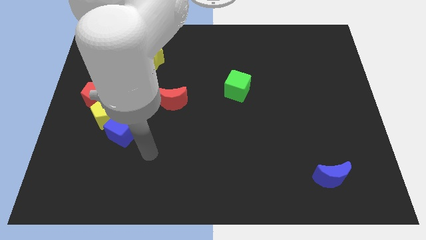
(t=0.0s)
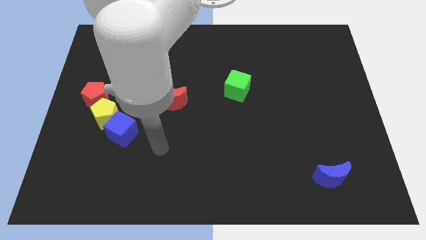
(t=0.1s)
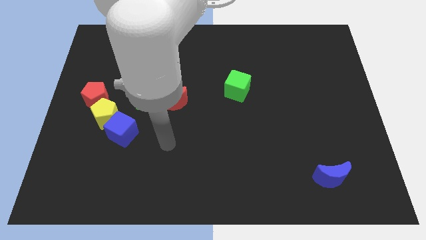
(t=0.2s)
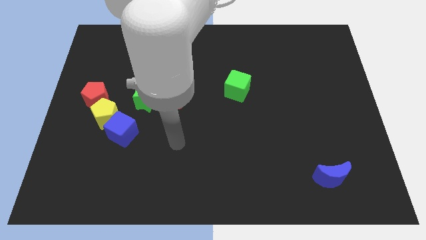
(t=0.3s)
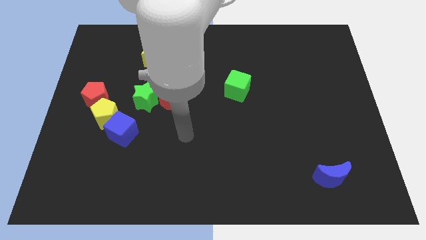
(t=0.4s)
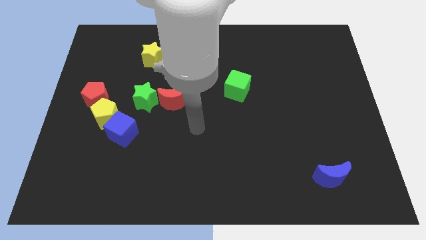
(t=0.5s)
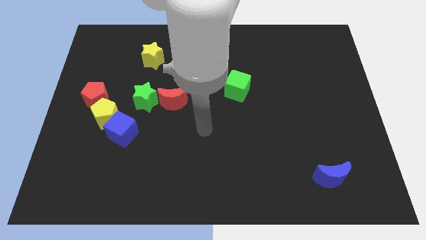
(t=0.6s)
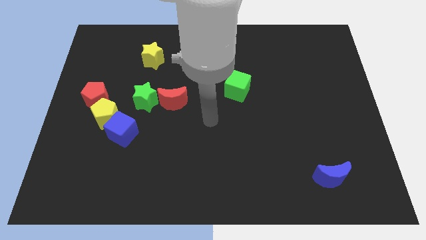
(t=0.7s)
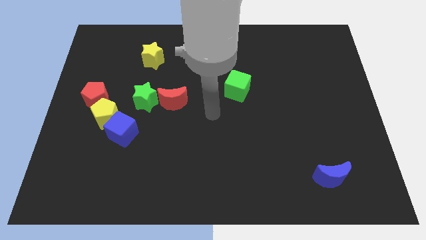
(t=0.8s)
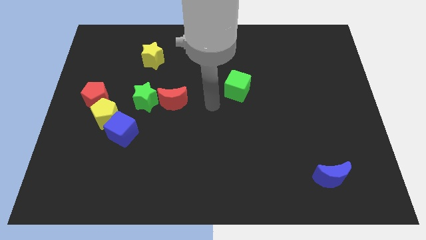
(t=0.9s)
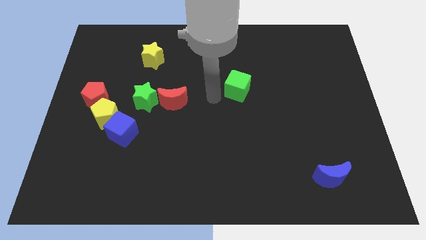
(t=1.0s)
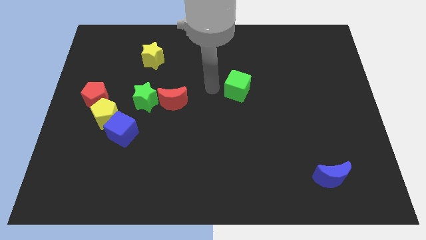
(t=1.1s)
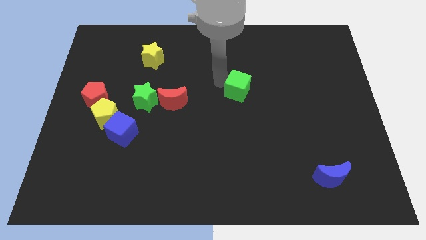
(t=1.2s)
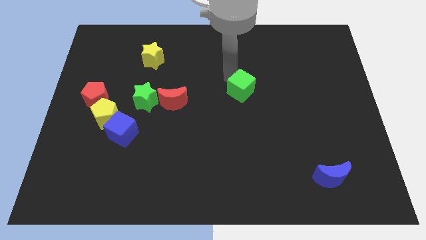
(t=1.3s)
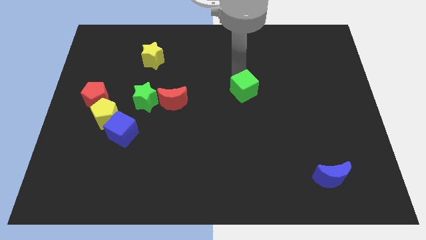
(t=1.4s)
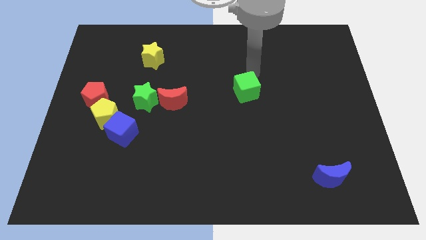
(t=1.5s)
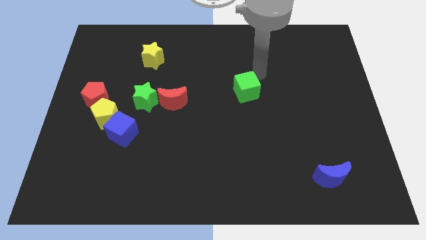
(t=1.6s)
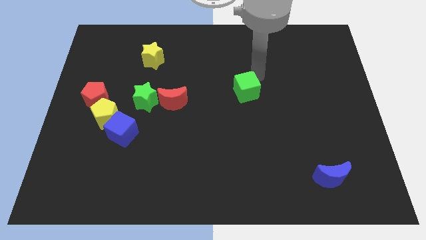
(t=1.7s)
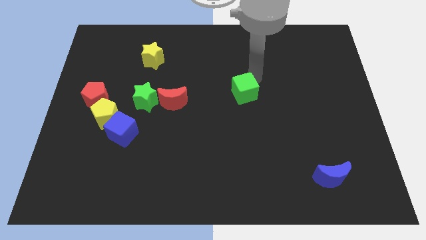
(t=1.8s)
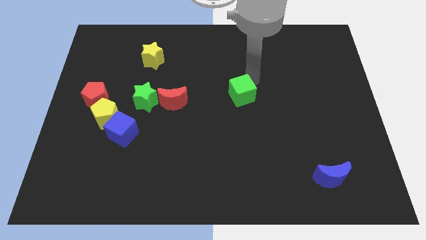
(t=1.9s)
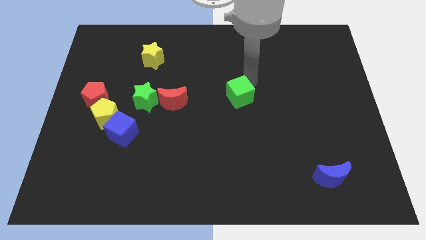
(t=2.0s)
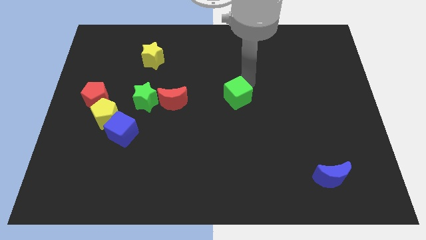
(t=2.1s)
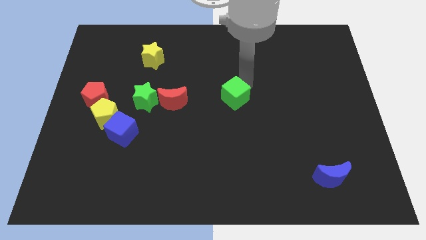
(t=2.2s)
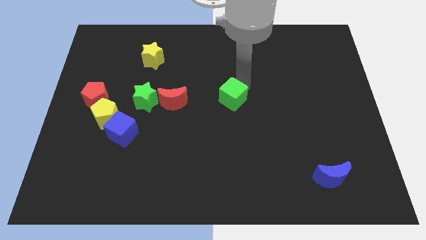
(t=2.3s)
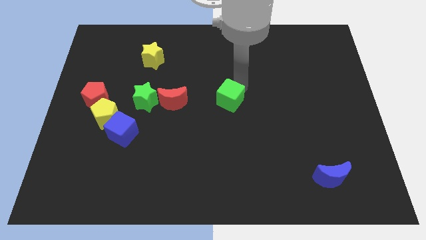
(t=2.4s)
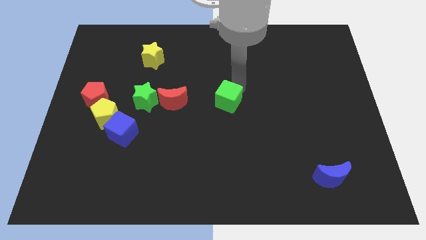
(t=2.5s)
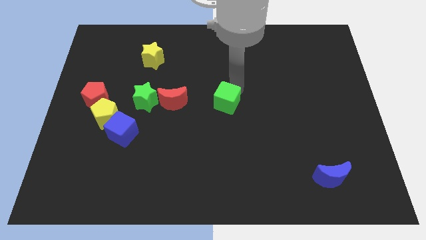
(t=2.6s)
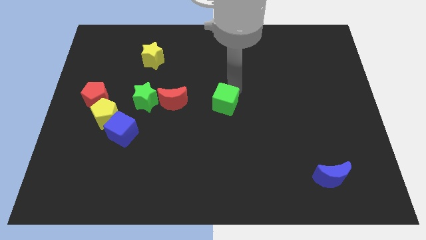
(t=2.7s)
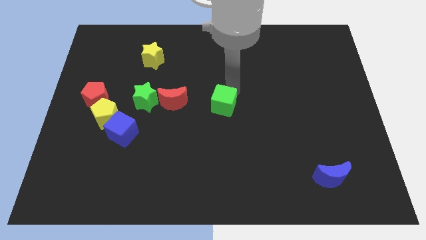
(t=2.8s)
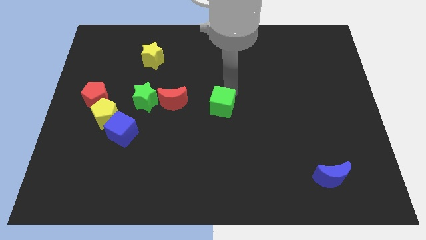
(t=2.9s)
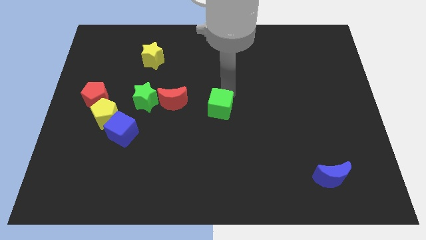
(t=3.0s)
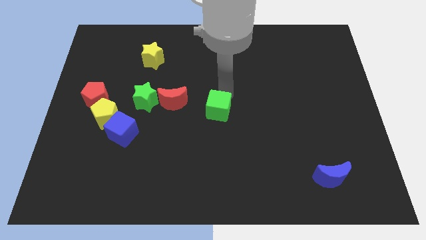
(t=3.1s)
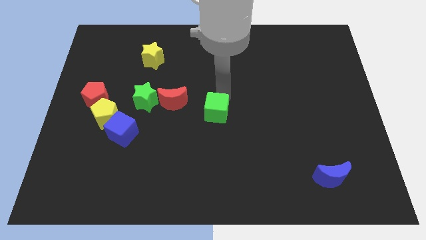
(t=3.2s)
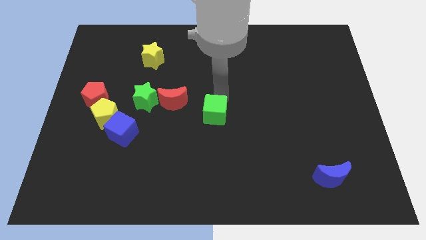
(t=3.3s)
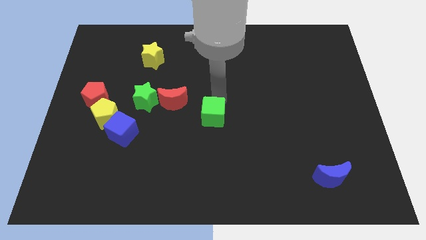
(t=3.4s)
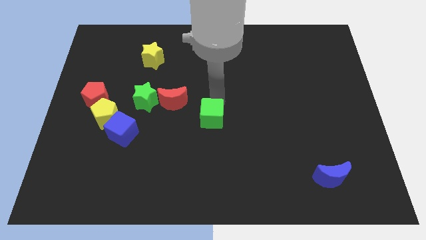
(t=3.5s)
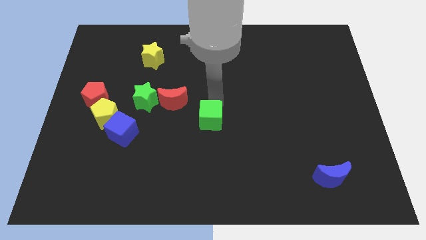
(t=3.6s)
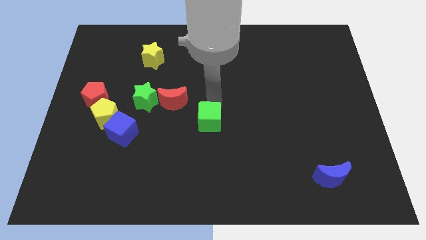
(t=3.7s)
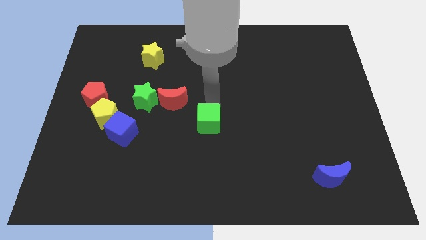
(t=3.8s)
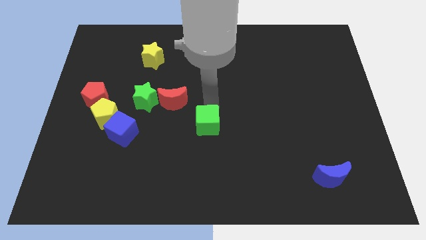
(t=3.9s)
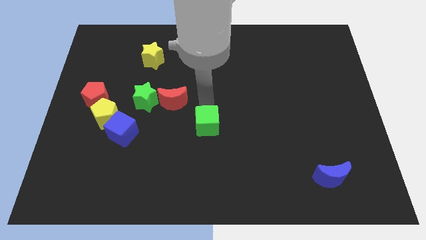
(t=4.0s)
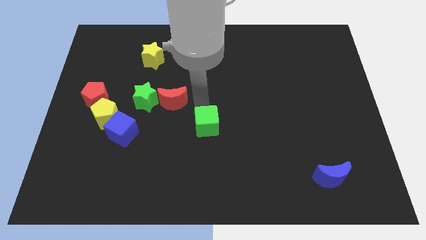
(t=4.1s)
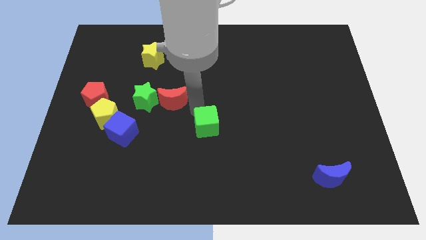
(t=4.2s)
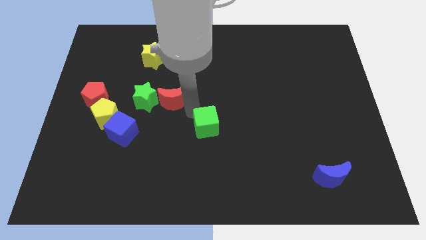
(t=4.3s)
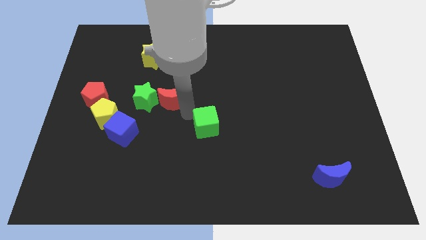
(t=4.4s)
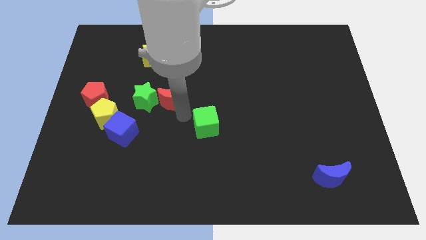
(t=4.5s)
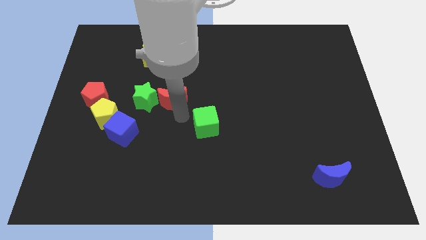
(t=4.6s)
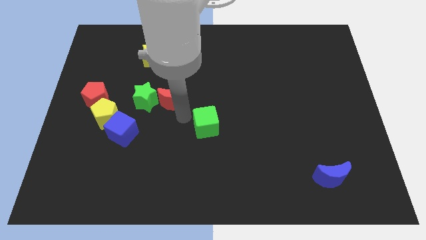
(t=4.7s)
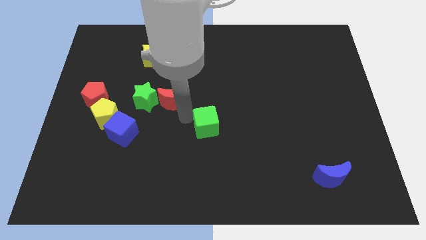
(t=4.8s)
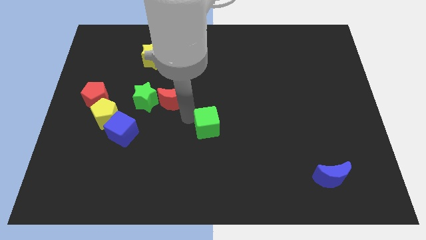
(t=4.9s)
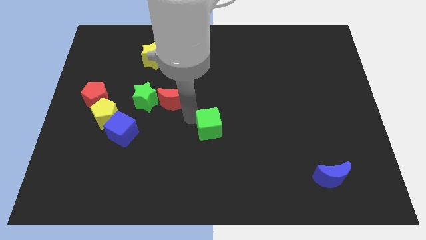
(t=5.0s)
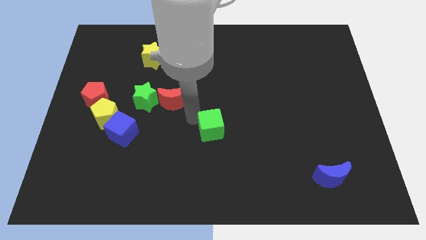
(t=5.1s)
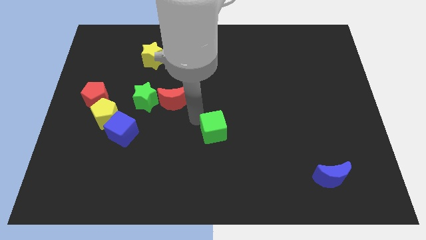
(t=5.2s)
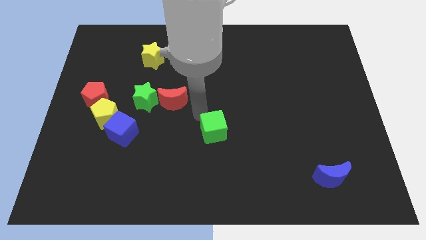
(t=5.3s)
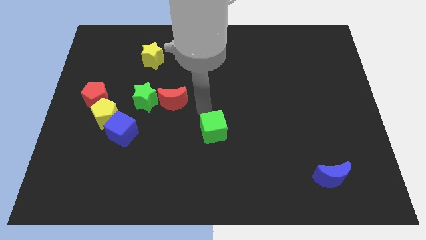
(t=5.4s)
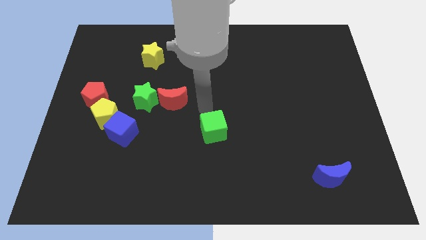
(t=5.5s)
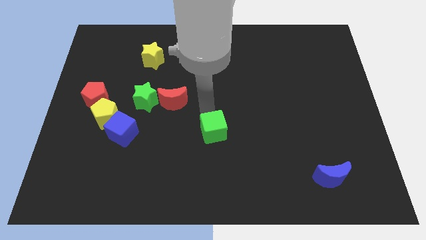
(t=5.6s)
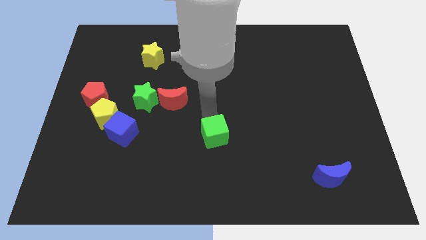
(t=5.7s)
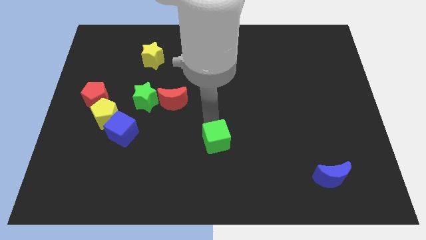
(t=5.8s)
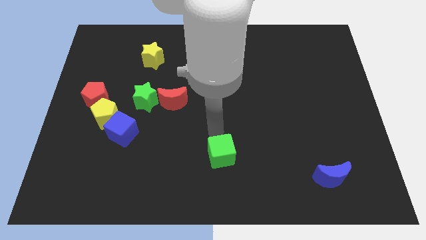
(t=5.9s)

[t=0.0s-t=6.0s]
move the green cube to the bottom

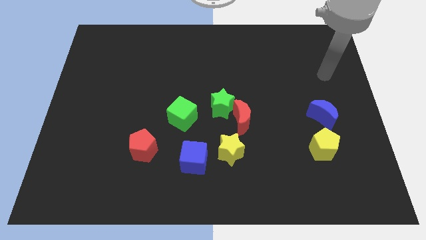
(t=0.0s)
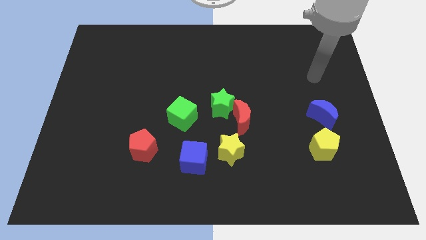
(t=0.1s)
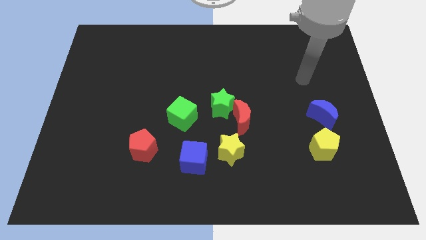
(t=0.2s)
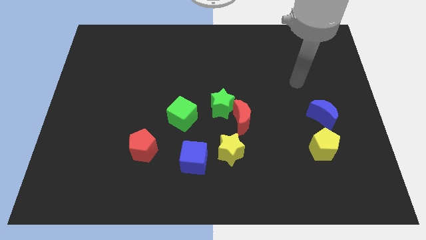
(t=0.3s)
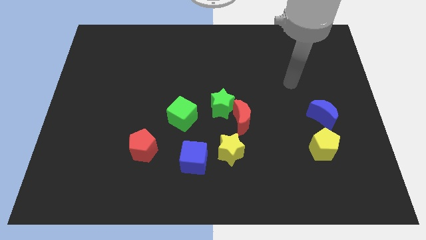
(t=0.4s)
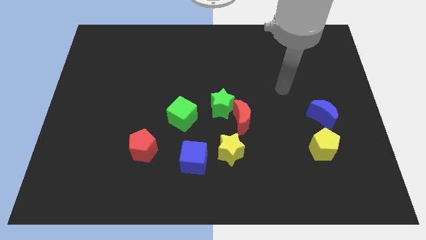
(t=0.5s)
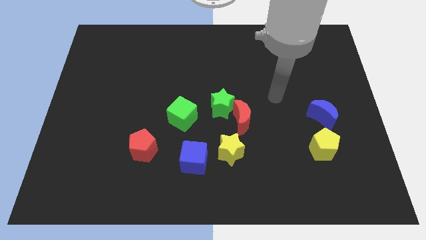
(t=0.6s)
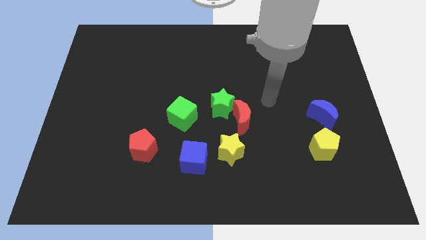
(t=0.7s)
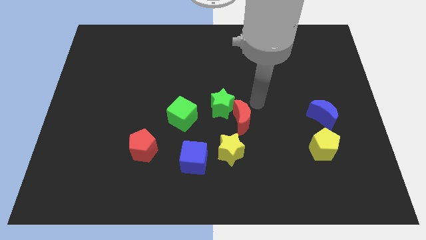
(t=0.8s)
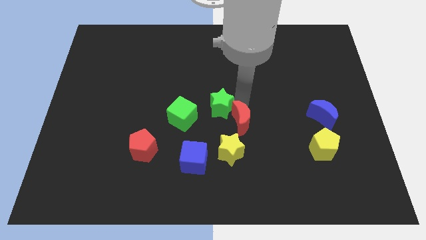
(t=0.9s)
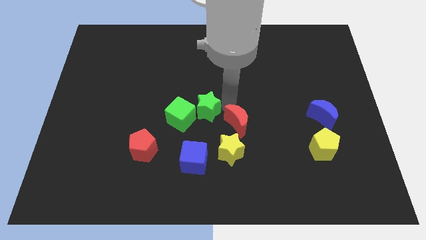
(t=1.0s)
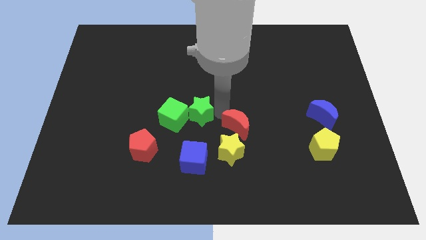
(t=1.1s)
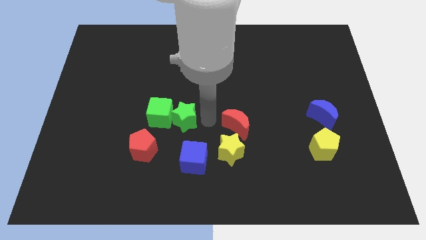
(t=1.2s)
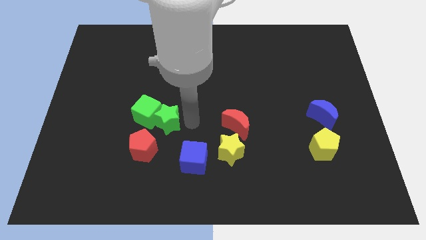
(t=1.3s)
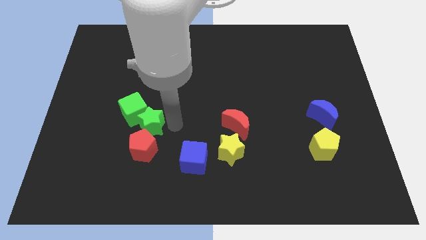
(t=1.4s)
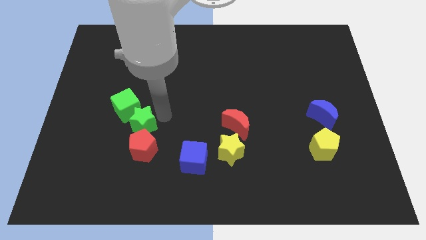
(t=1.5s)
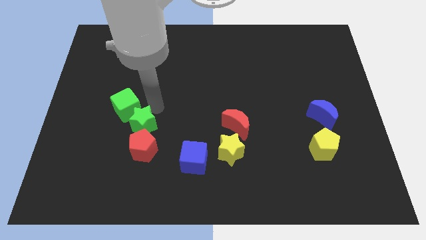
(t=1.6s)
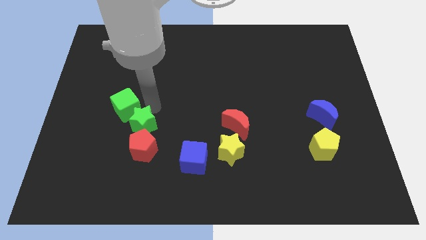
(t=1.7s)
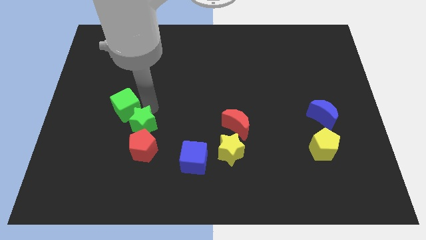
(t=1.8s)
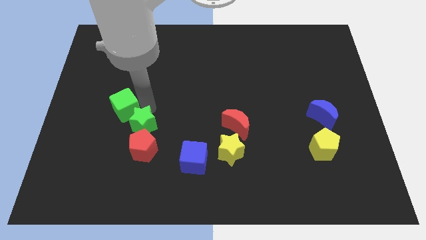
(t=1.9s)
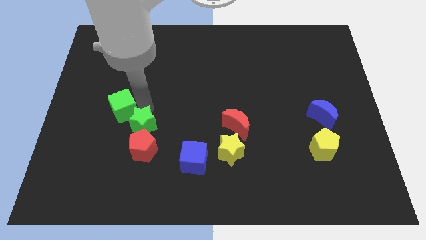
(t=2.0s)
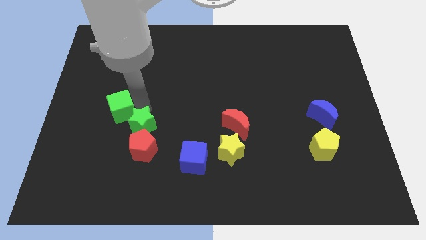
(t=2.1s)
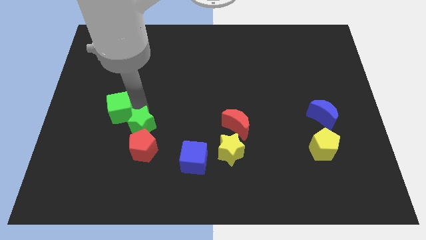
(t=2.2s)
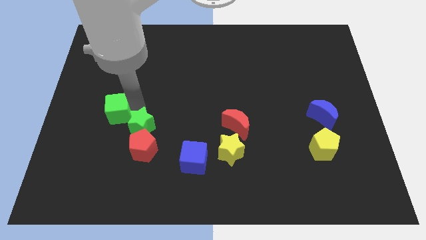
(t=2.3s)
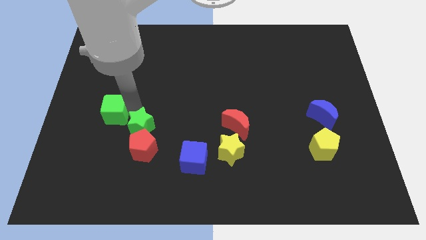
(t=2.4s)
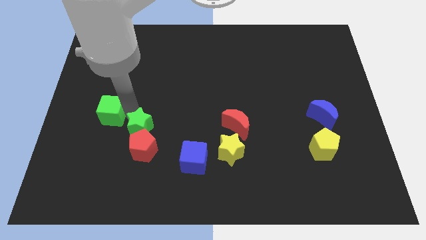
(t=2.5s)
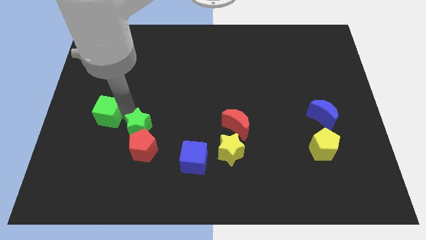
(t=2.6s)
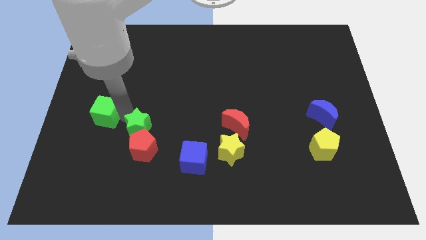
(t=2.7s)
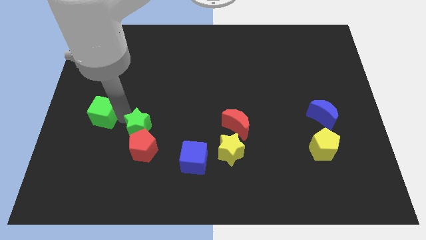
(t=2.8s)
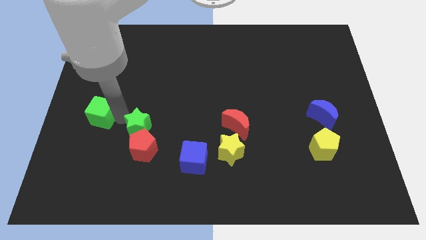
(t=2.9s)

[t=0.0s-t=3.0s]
move the green cube to the center left
